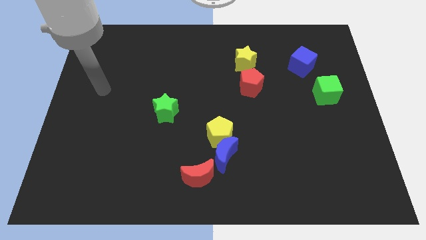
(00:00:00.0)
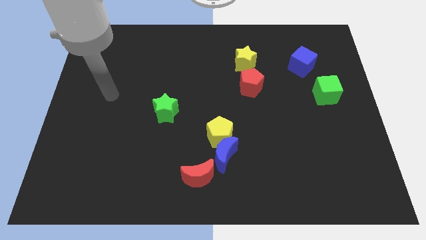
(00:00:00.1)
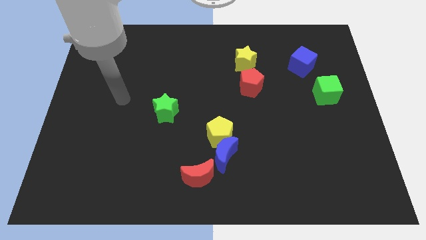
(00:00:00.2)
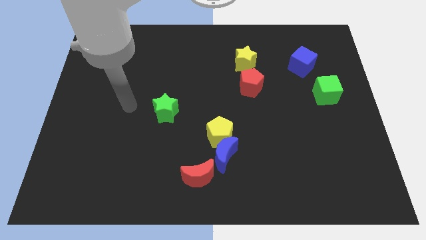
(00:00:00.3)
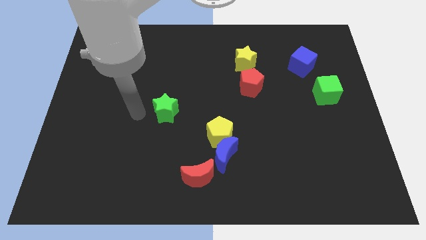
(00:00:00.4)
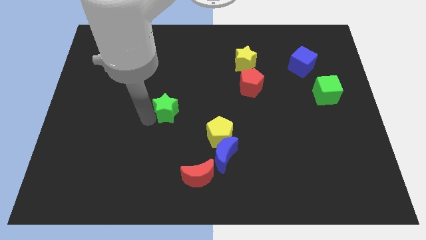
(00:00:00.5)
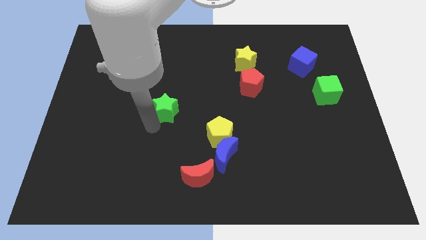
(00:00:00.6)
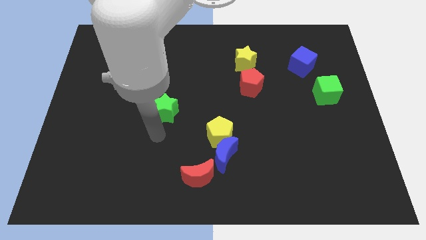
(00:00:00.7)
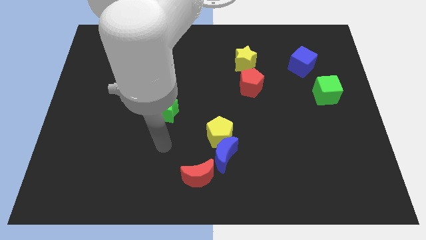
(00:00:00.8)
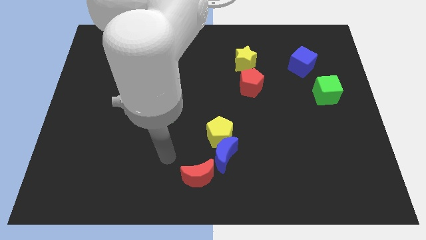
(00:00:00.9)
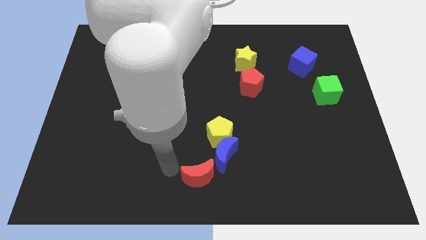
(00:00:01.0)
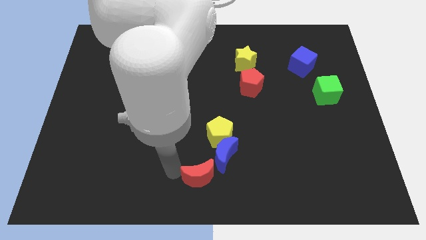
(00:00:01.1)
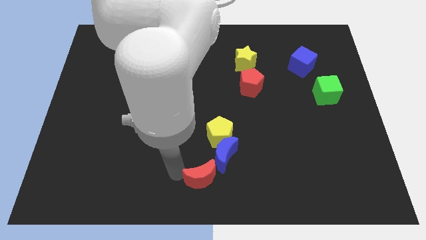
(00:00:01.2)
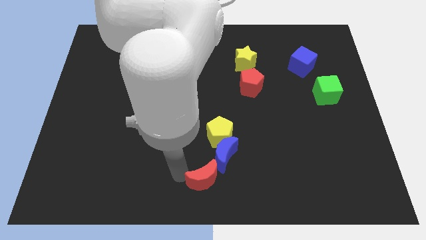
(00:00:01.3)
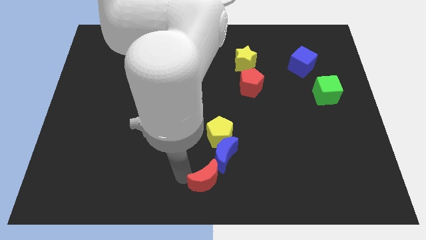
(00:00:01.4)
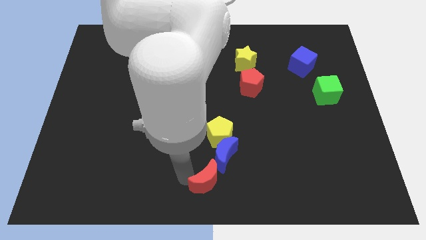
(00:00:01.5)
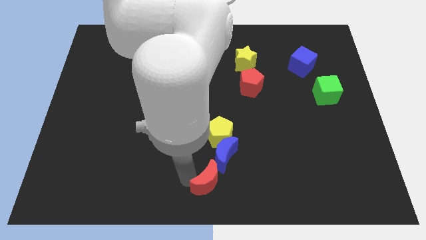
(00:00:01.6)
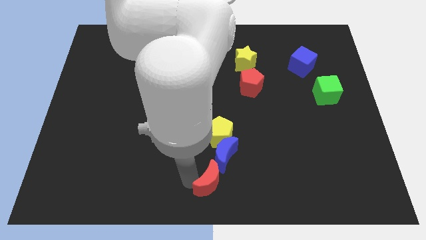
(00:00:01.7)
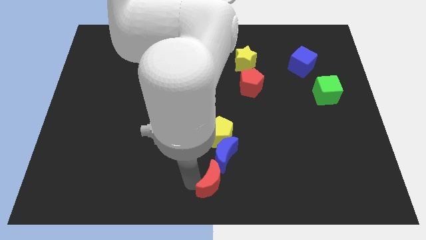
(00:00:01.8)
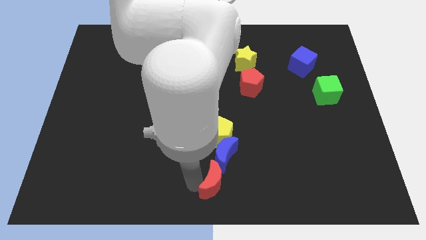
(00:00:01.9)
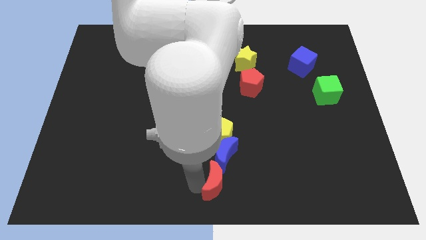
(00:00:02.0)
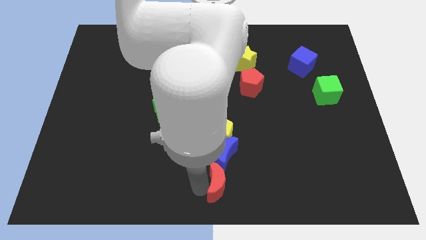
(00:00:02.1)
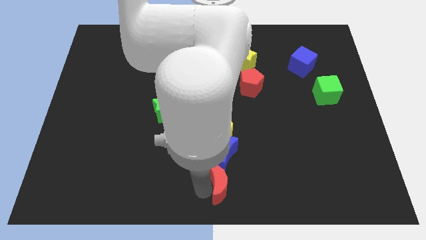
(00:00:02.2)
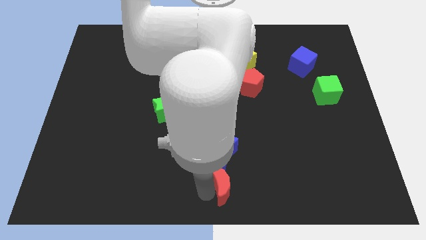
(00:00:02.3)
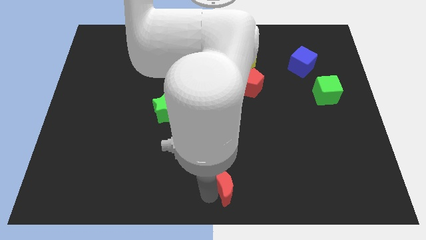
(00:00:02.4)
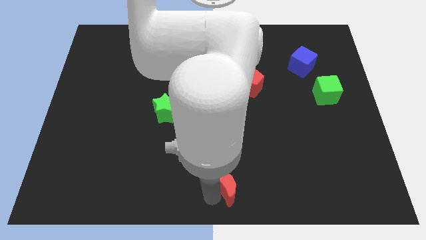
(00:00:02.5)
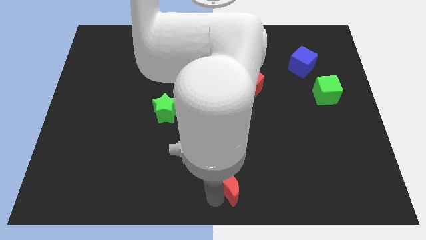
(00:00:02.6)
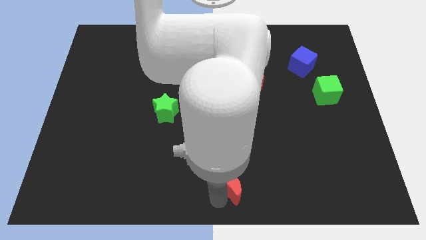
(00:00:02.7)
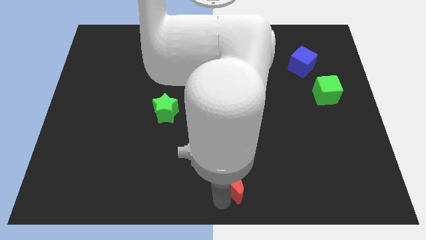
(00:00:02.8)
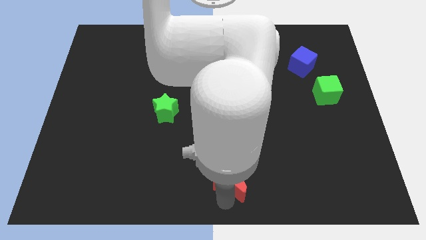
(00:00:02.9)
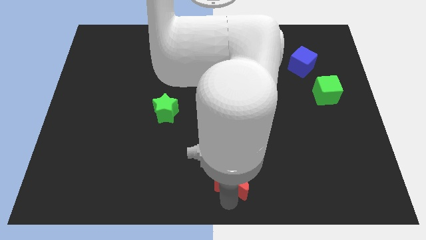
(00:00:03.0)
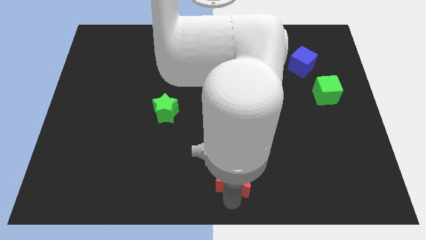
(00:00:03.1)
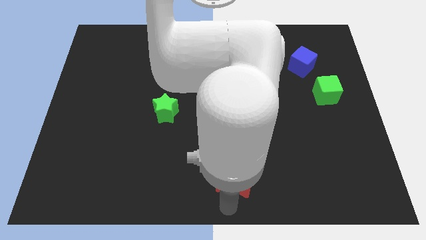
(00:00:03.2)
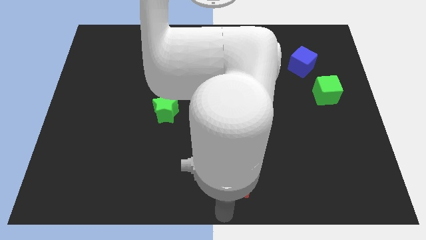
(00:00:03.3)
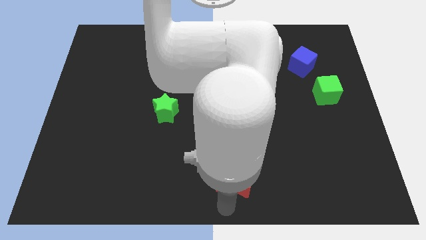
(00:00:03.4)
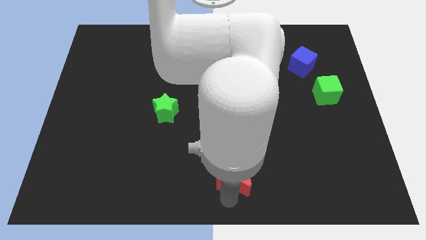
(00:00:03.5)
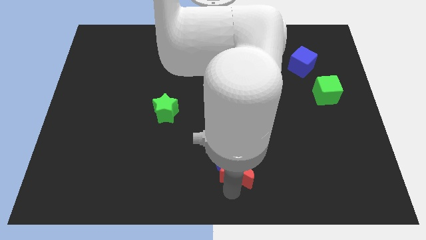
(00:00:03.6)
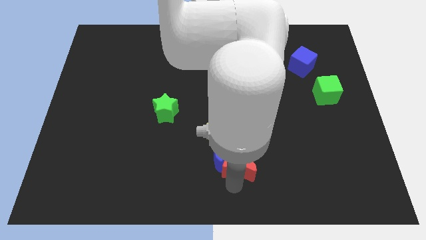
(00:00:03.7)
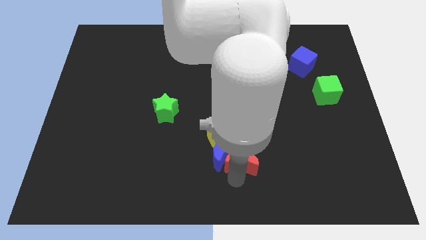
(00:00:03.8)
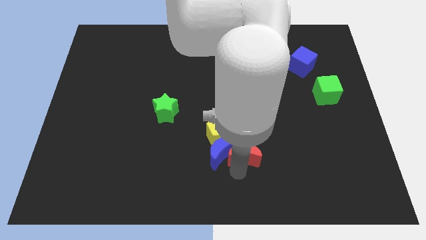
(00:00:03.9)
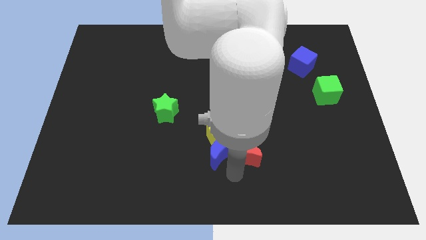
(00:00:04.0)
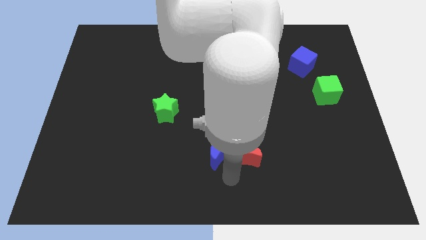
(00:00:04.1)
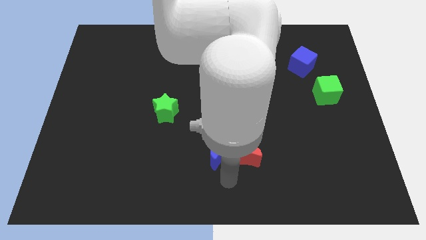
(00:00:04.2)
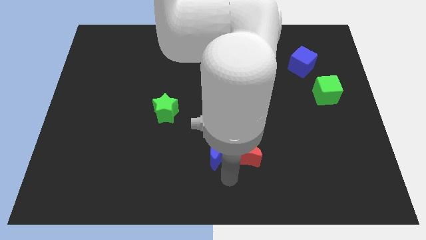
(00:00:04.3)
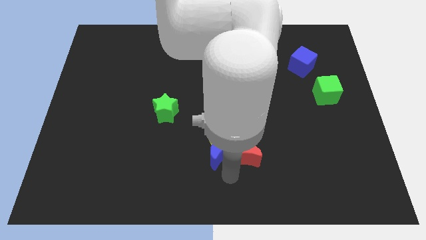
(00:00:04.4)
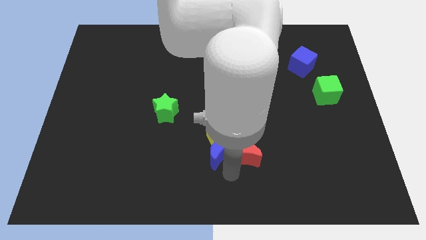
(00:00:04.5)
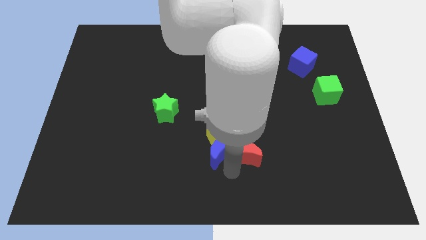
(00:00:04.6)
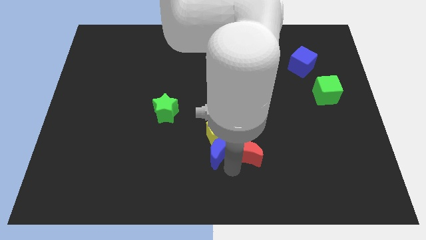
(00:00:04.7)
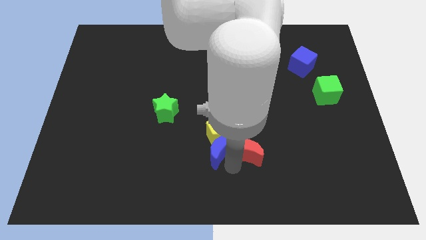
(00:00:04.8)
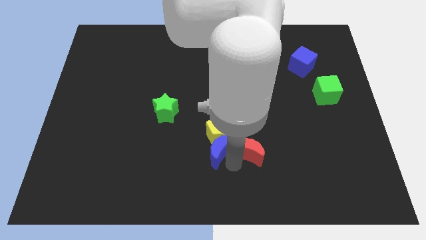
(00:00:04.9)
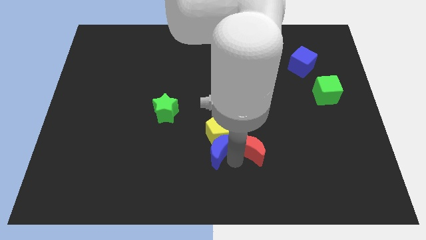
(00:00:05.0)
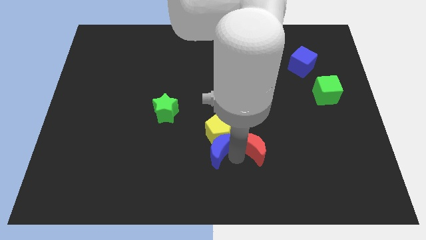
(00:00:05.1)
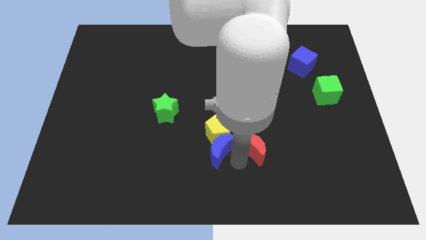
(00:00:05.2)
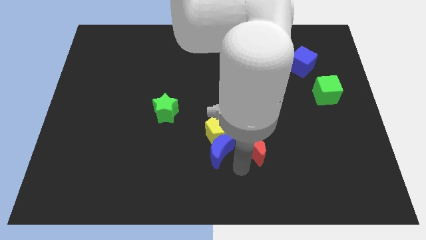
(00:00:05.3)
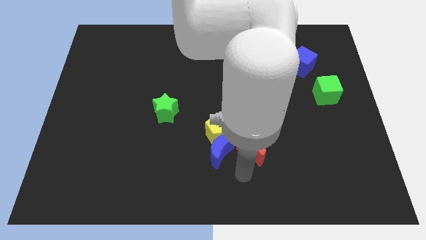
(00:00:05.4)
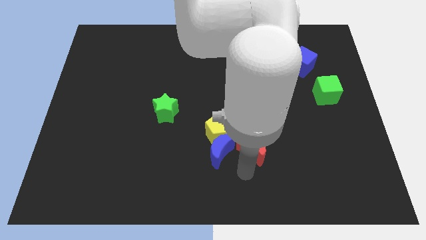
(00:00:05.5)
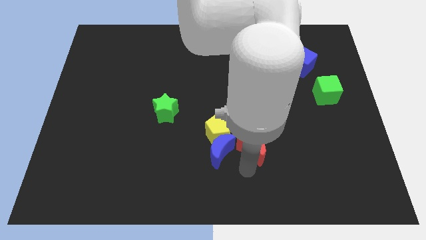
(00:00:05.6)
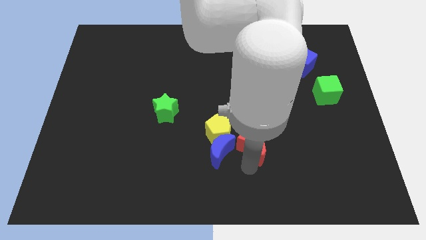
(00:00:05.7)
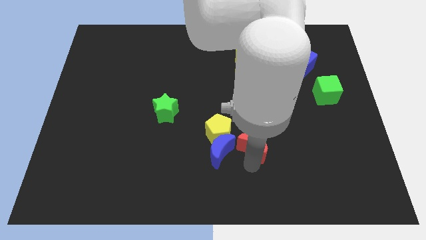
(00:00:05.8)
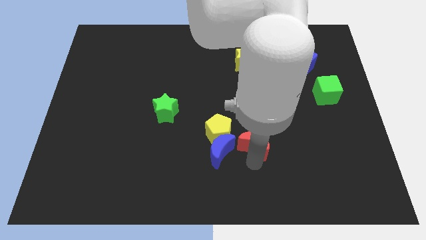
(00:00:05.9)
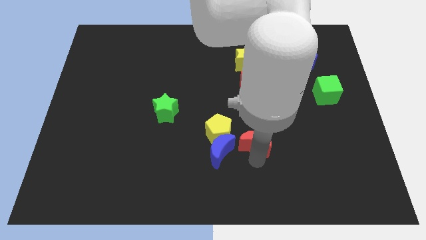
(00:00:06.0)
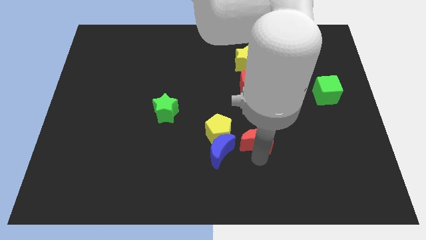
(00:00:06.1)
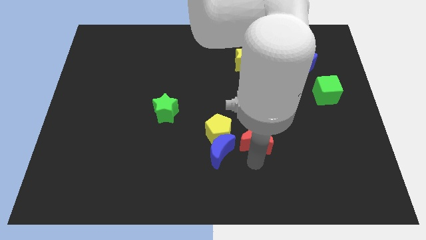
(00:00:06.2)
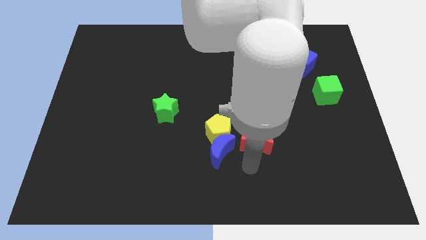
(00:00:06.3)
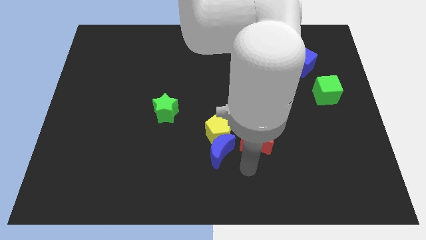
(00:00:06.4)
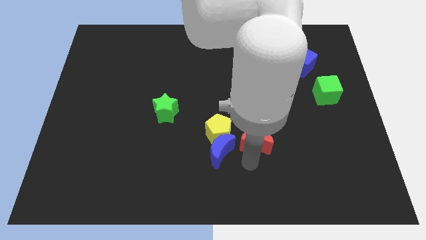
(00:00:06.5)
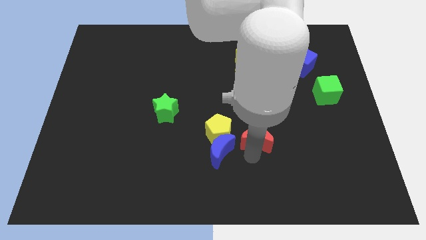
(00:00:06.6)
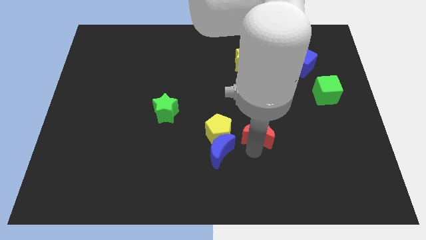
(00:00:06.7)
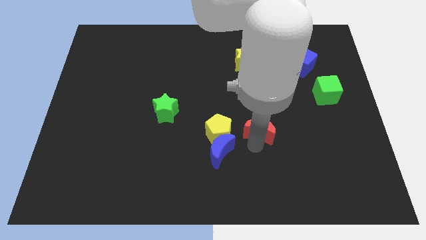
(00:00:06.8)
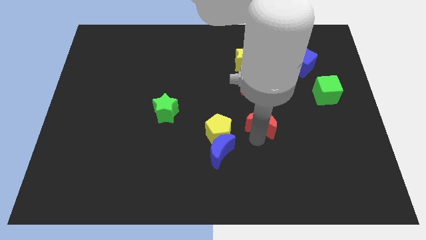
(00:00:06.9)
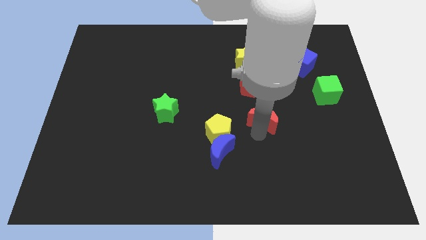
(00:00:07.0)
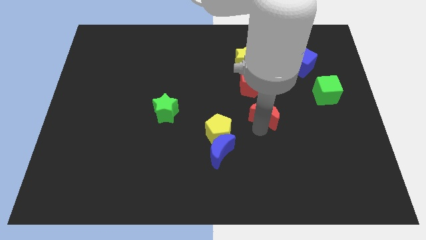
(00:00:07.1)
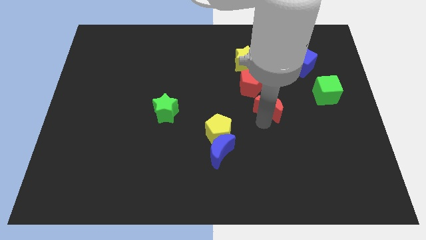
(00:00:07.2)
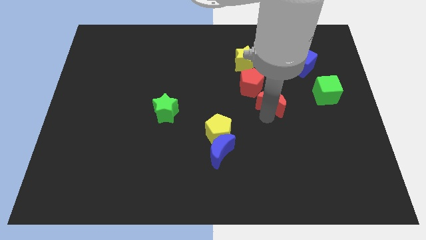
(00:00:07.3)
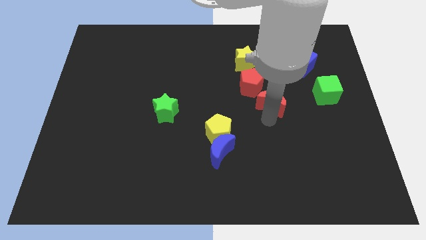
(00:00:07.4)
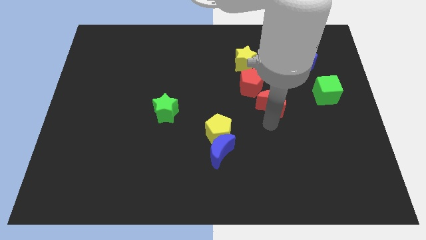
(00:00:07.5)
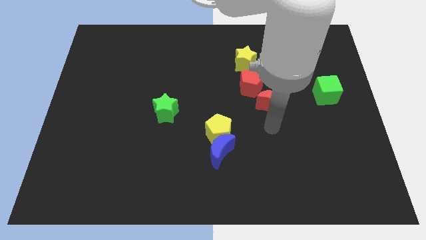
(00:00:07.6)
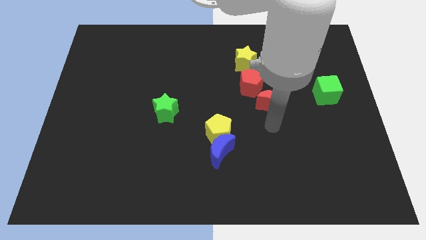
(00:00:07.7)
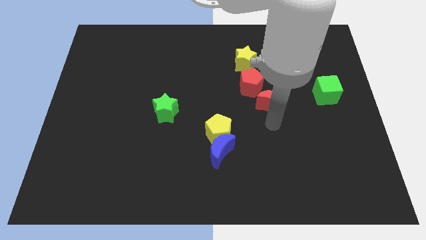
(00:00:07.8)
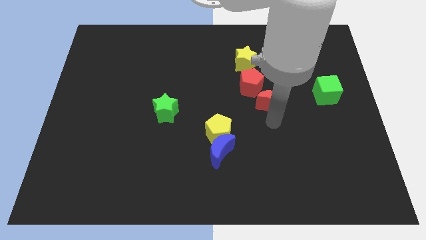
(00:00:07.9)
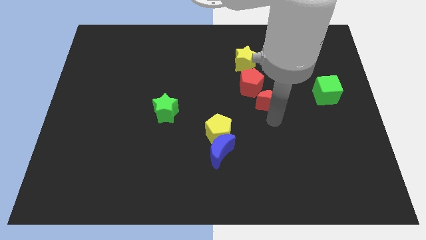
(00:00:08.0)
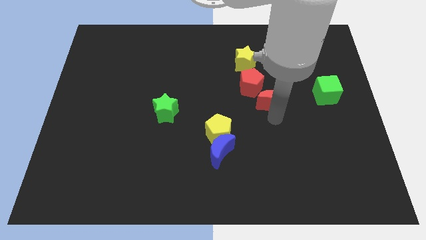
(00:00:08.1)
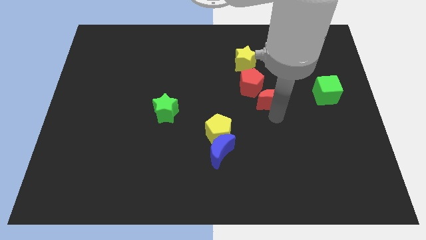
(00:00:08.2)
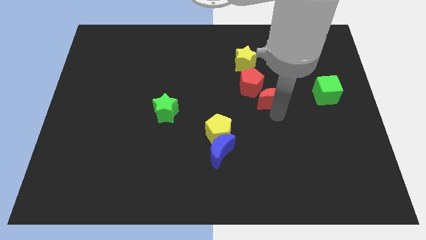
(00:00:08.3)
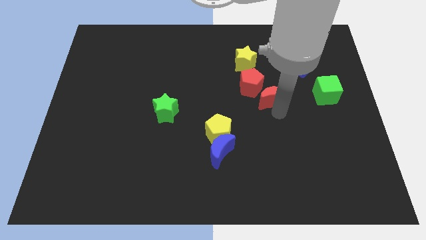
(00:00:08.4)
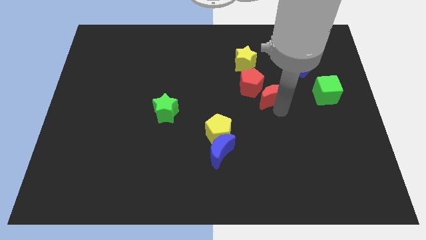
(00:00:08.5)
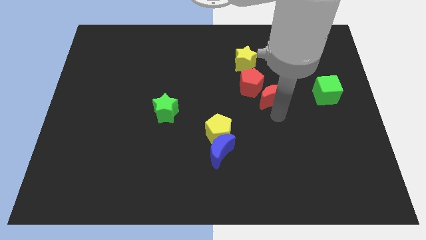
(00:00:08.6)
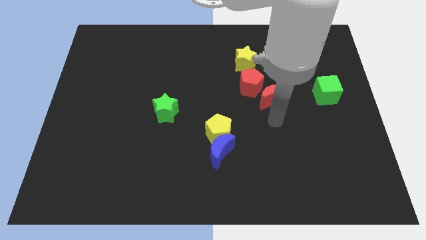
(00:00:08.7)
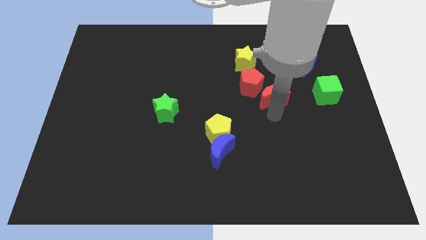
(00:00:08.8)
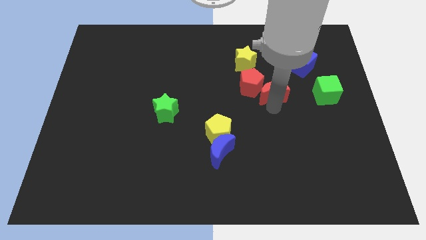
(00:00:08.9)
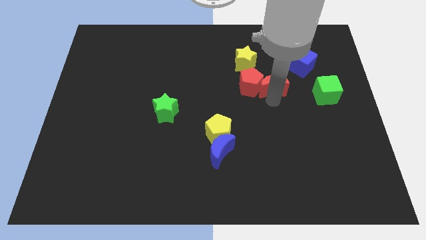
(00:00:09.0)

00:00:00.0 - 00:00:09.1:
push the red moon diagonally up and to the right of the red pentagon
